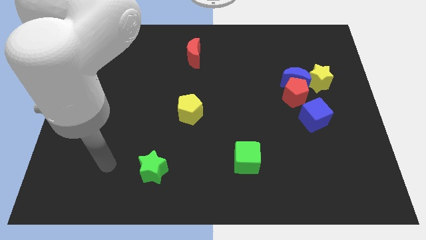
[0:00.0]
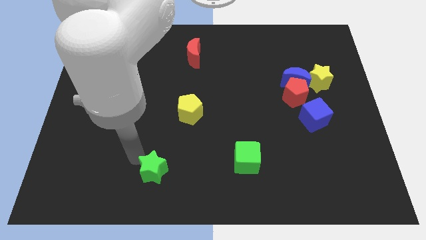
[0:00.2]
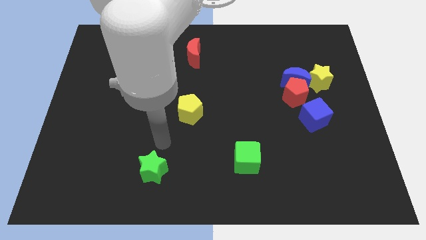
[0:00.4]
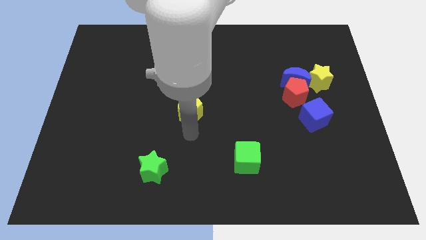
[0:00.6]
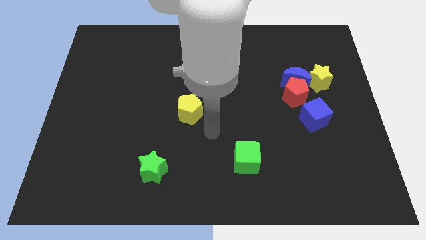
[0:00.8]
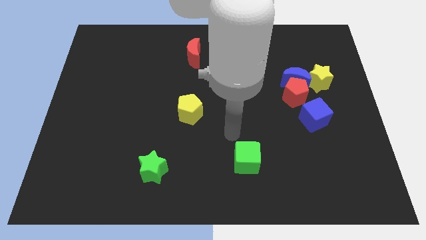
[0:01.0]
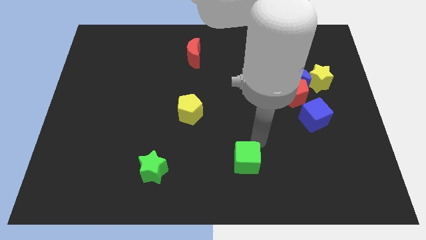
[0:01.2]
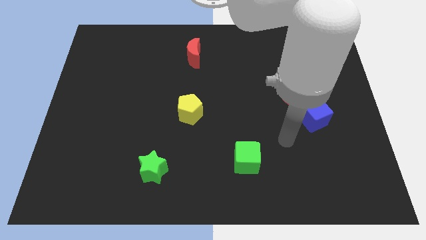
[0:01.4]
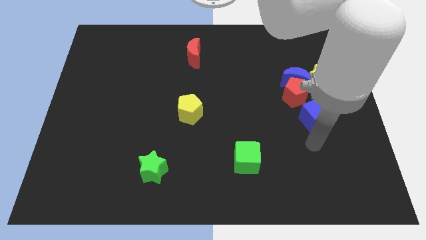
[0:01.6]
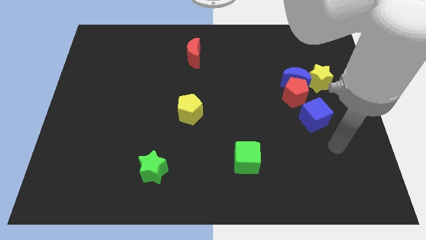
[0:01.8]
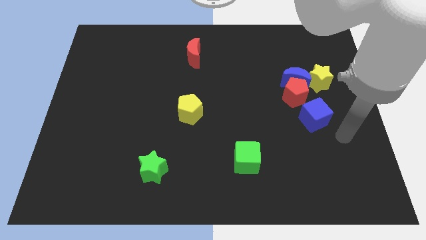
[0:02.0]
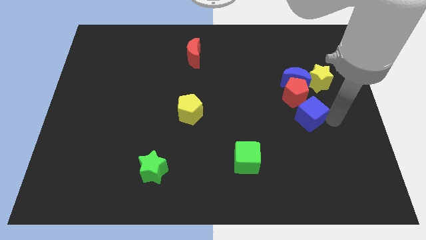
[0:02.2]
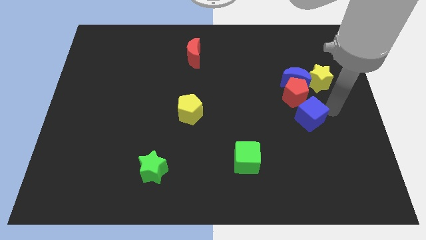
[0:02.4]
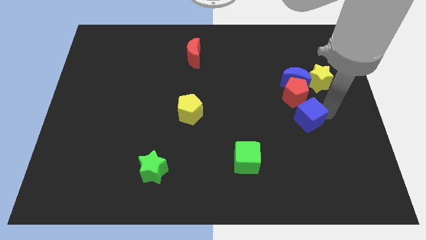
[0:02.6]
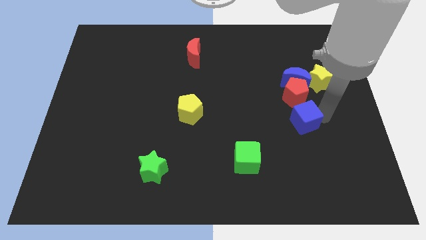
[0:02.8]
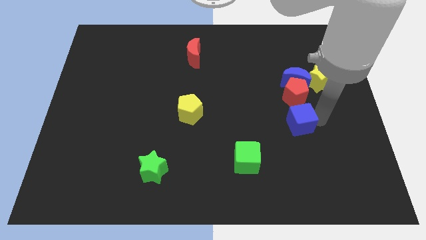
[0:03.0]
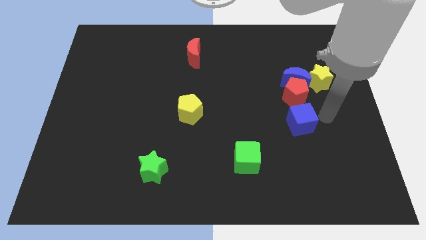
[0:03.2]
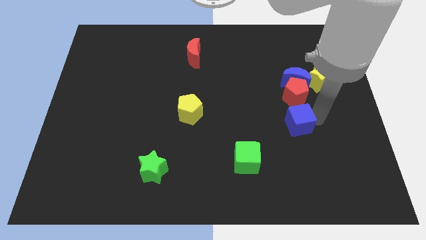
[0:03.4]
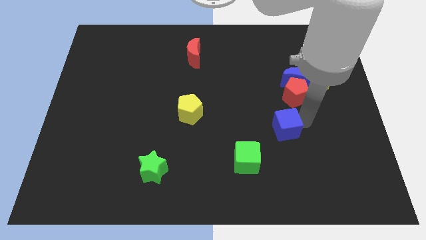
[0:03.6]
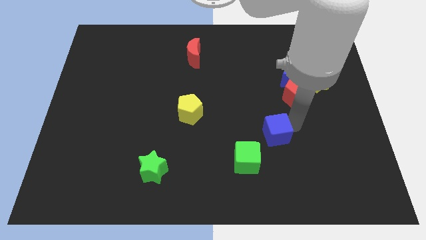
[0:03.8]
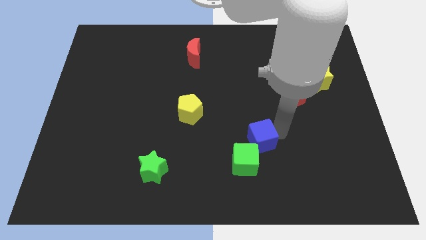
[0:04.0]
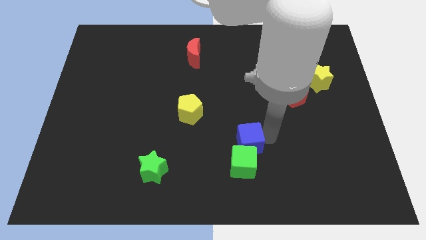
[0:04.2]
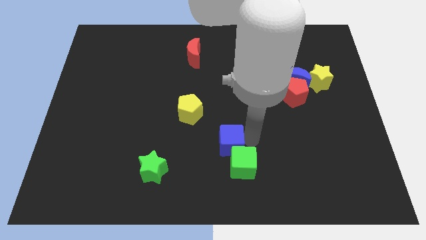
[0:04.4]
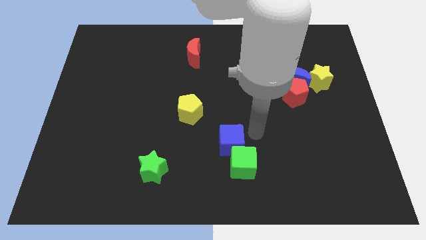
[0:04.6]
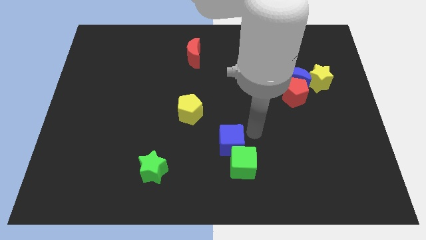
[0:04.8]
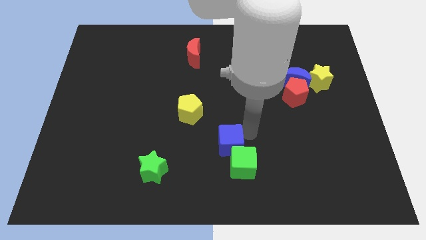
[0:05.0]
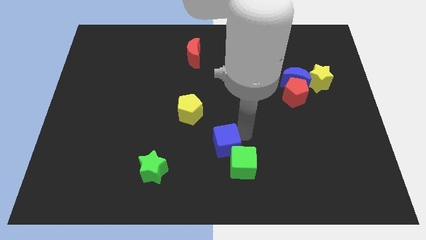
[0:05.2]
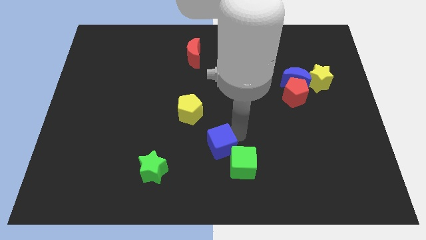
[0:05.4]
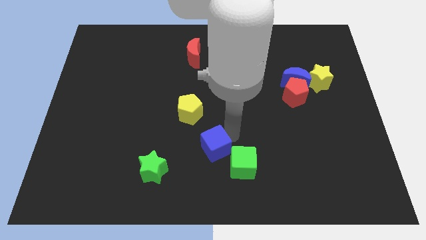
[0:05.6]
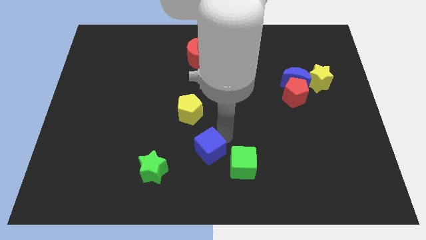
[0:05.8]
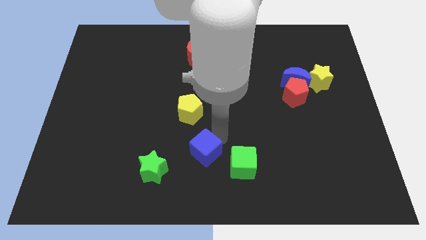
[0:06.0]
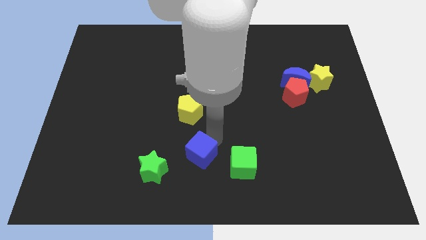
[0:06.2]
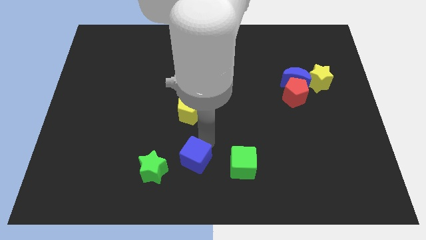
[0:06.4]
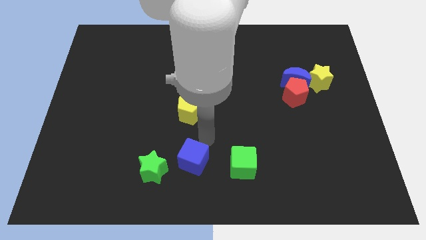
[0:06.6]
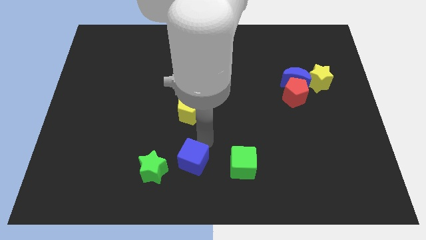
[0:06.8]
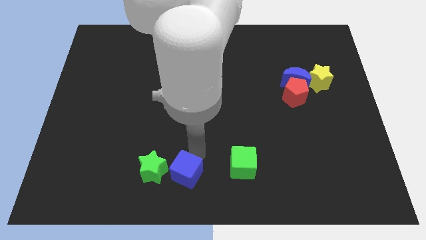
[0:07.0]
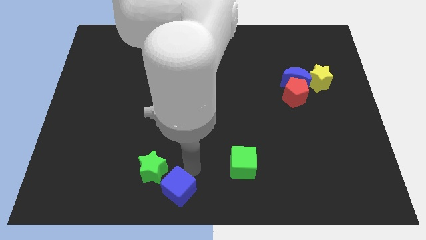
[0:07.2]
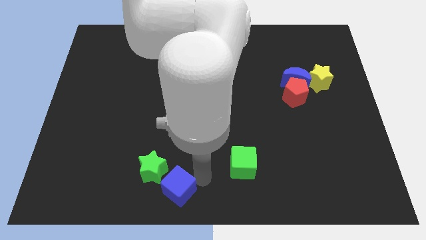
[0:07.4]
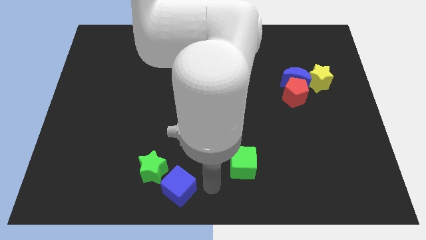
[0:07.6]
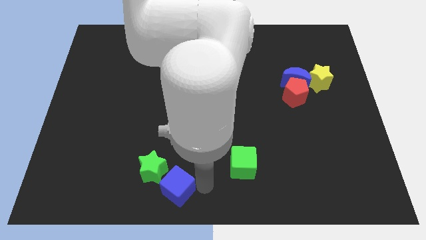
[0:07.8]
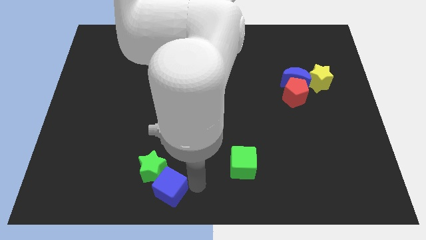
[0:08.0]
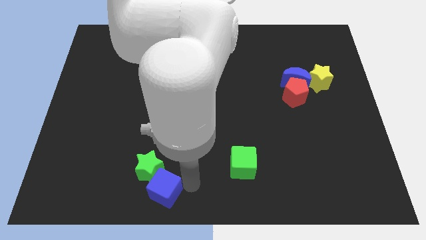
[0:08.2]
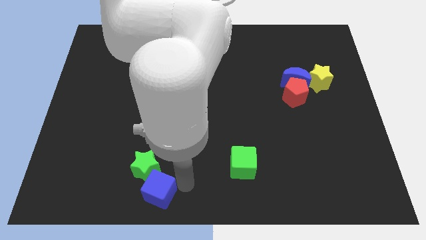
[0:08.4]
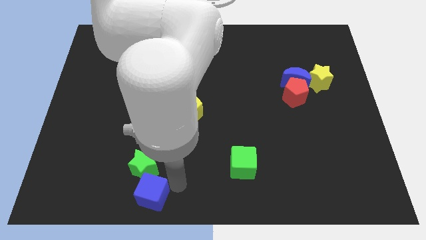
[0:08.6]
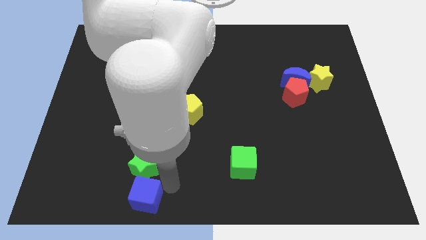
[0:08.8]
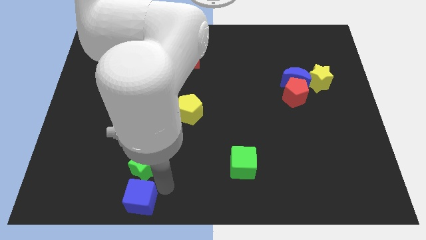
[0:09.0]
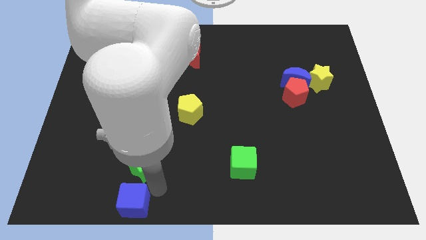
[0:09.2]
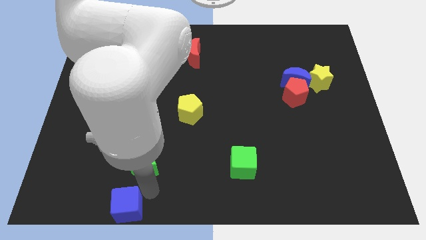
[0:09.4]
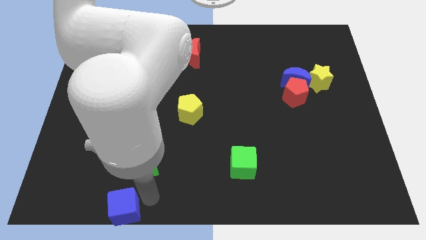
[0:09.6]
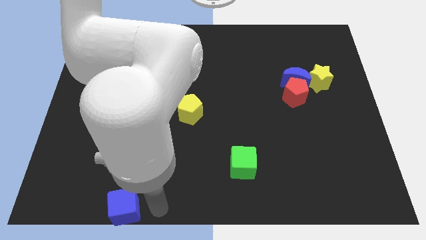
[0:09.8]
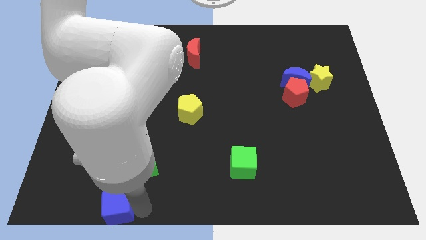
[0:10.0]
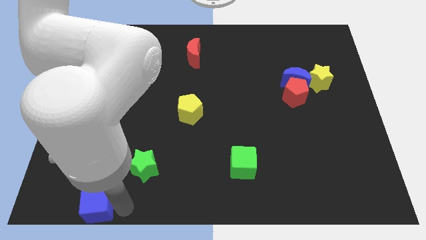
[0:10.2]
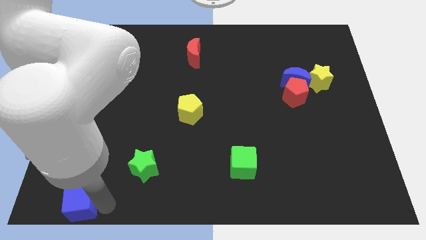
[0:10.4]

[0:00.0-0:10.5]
move the blue cube to the bottom left

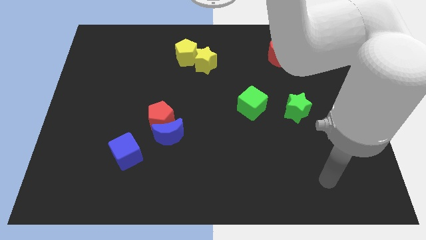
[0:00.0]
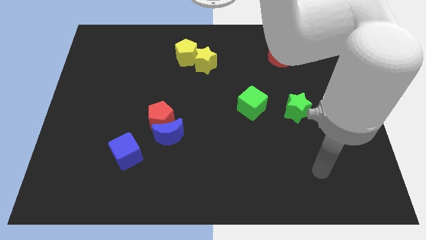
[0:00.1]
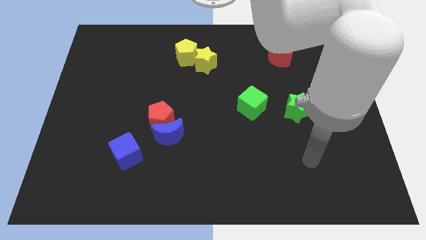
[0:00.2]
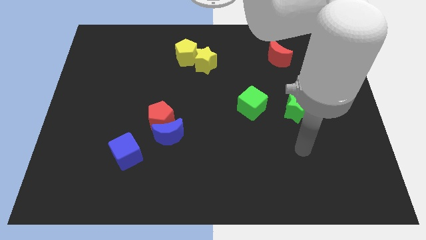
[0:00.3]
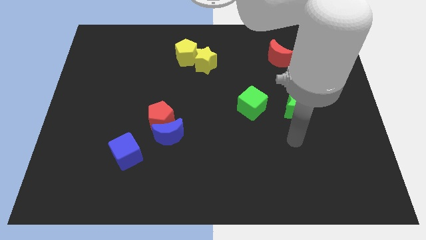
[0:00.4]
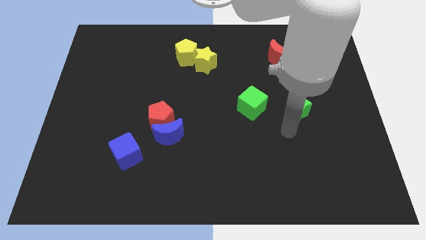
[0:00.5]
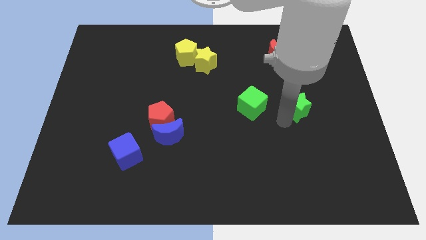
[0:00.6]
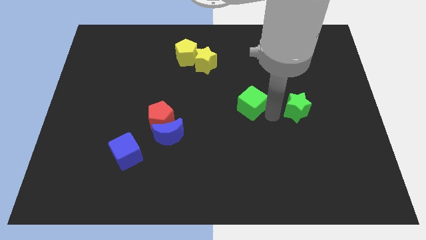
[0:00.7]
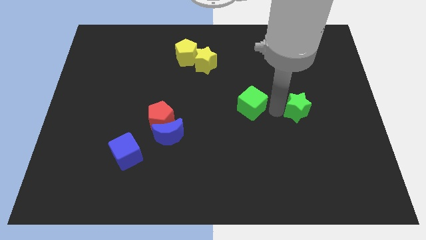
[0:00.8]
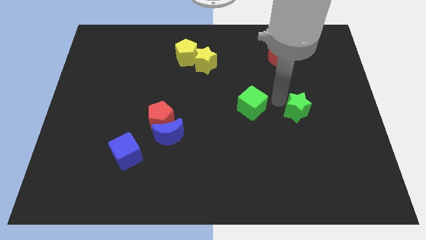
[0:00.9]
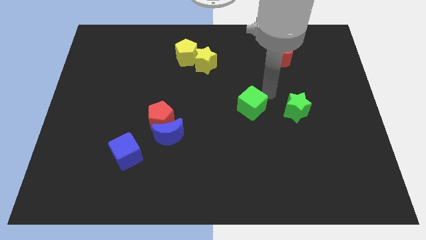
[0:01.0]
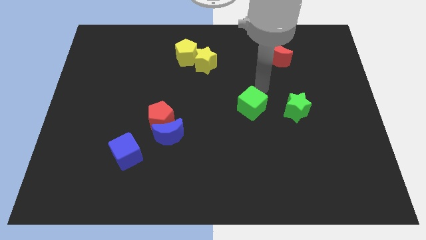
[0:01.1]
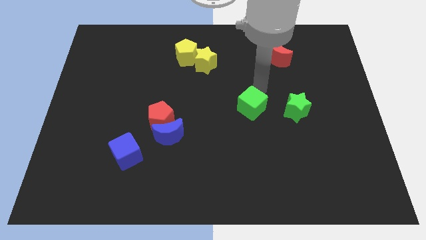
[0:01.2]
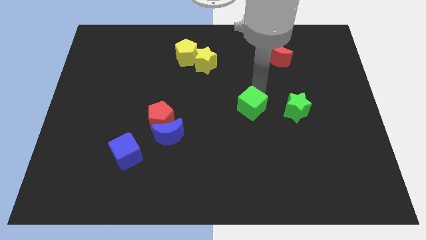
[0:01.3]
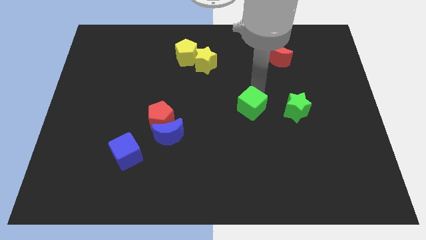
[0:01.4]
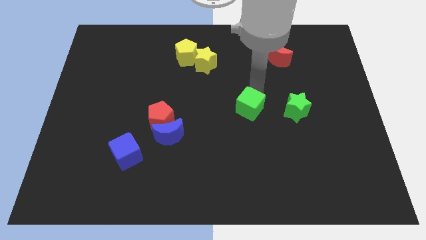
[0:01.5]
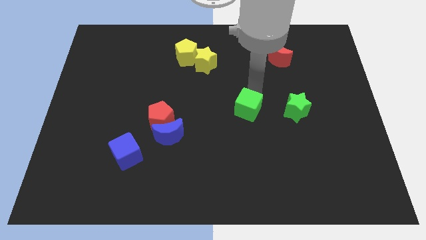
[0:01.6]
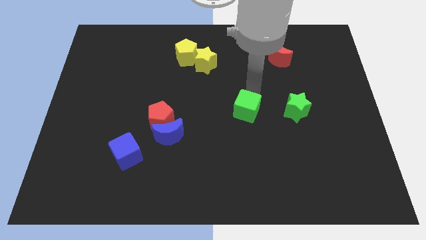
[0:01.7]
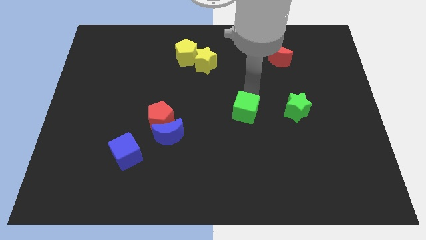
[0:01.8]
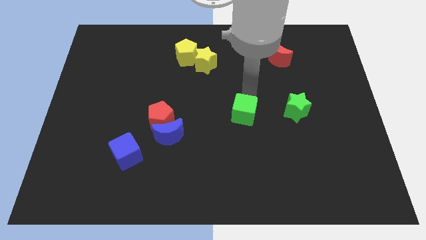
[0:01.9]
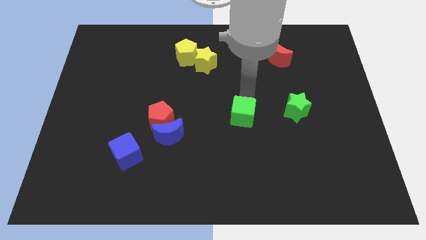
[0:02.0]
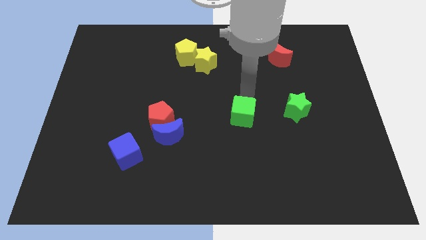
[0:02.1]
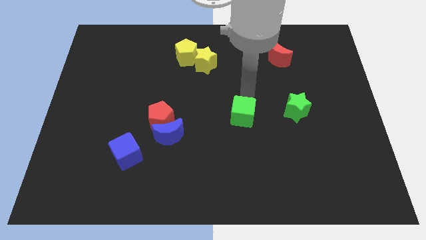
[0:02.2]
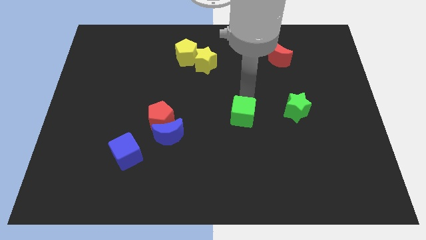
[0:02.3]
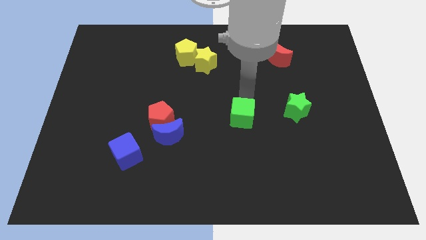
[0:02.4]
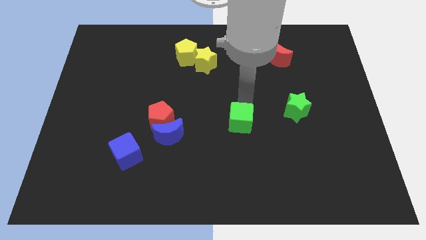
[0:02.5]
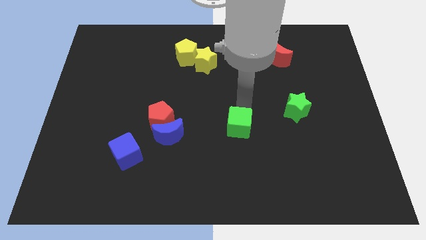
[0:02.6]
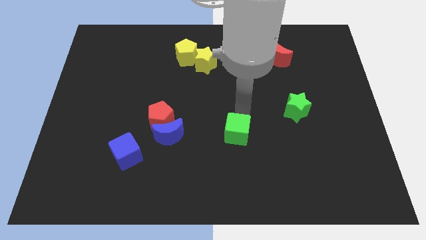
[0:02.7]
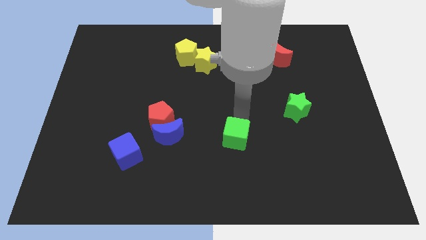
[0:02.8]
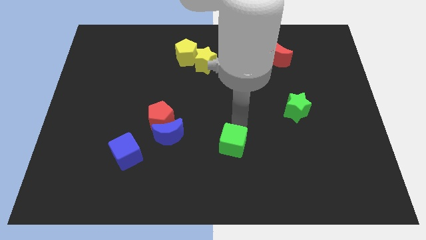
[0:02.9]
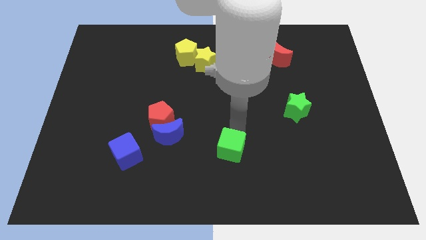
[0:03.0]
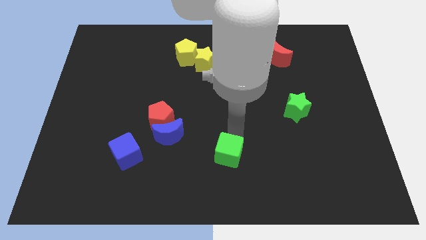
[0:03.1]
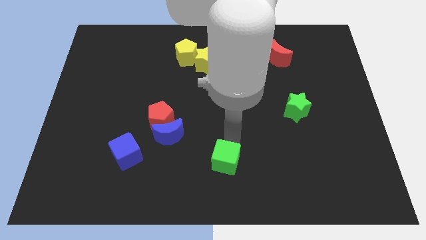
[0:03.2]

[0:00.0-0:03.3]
push the green cube to the bottom side
